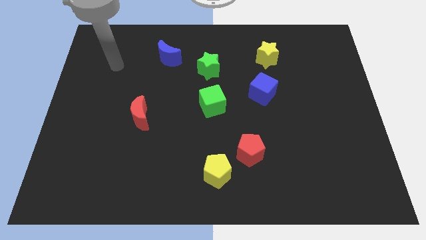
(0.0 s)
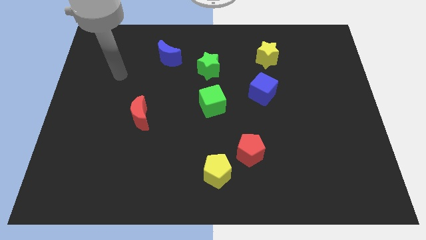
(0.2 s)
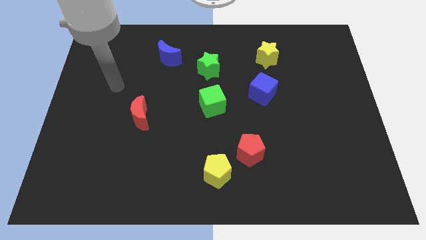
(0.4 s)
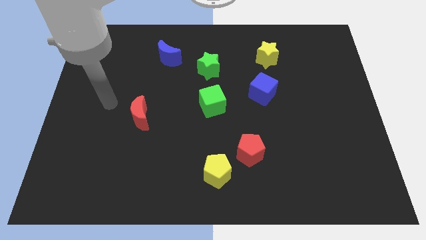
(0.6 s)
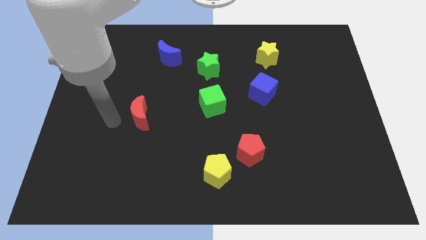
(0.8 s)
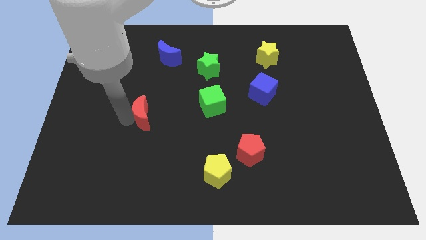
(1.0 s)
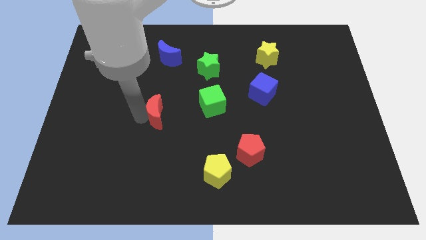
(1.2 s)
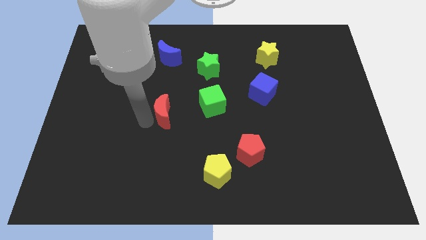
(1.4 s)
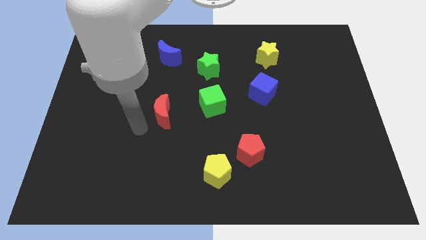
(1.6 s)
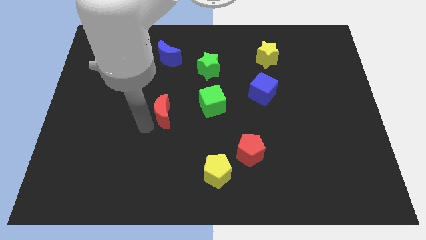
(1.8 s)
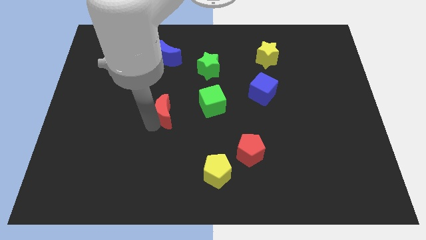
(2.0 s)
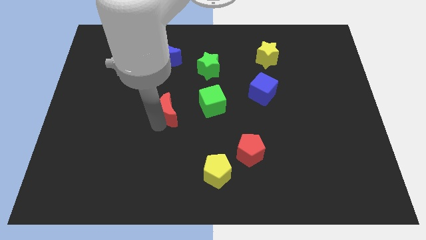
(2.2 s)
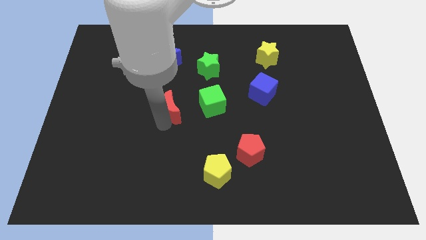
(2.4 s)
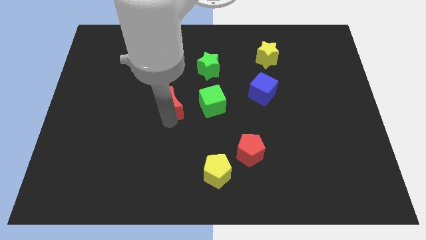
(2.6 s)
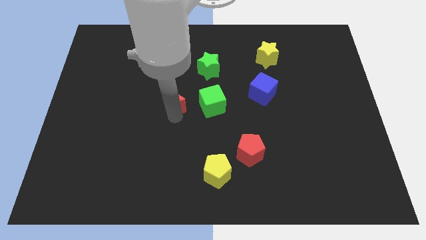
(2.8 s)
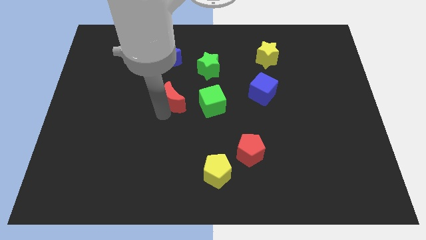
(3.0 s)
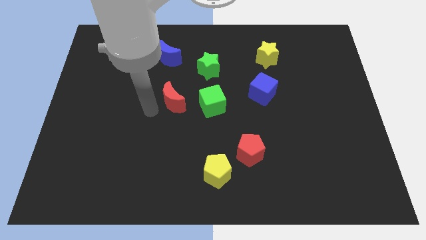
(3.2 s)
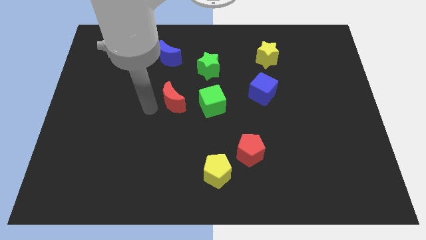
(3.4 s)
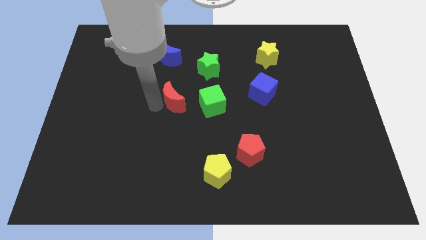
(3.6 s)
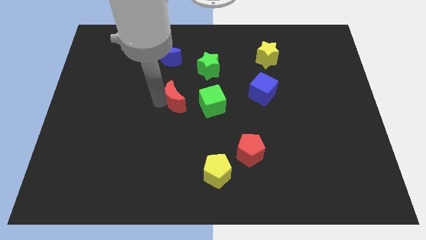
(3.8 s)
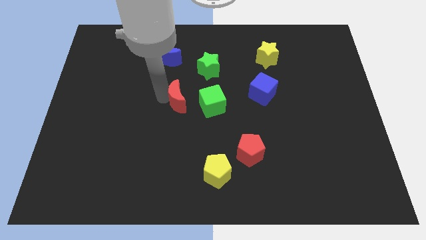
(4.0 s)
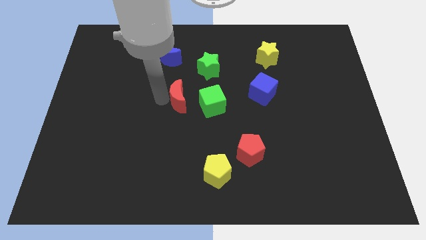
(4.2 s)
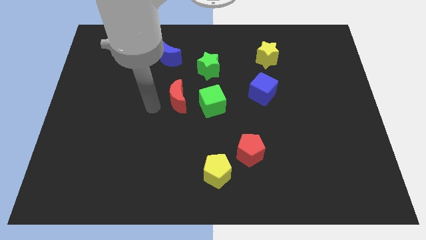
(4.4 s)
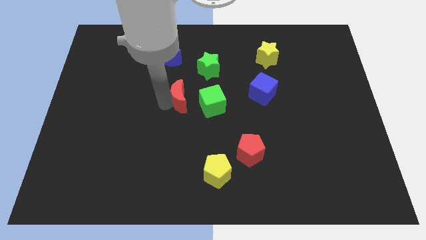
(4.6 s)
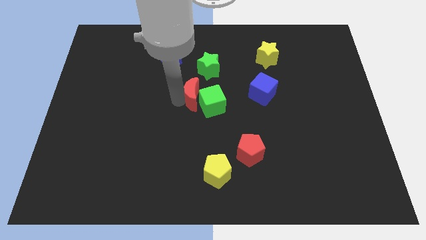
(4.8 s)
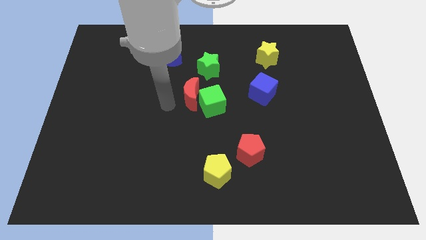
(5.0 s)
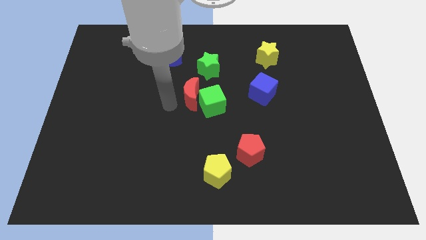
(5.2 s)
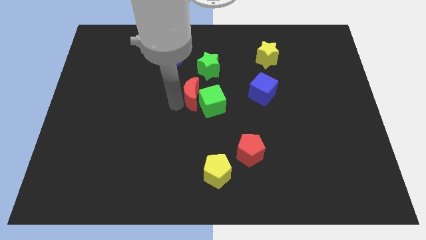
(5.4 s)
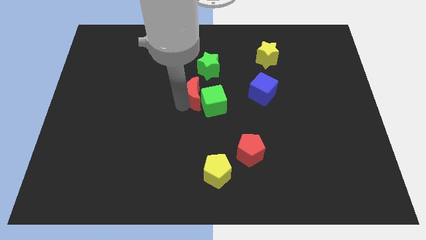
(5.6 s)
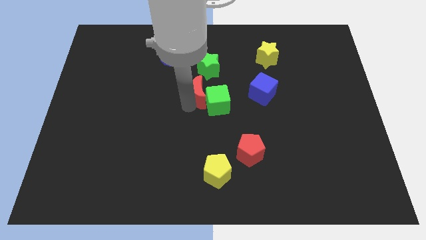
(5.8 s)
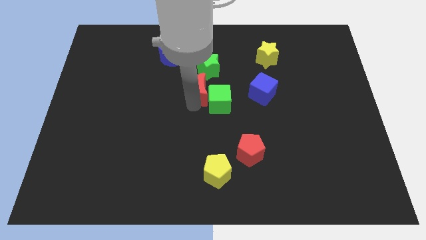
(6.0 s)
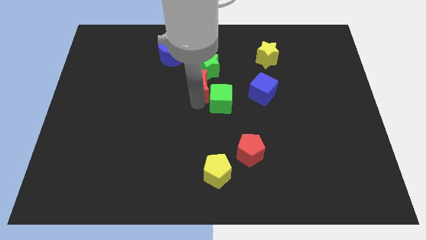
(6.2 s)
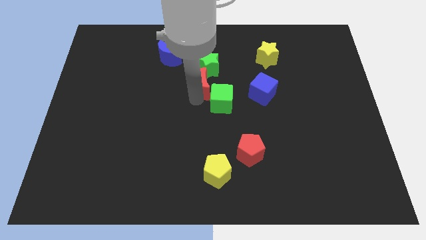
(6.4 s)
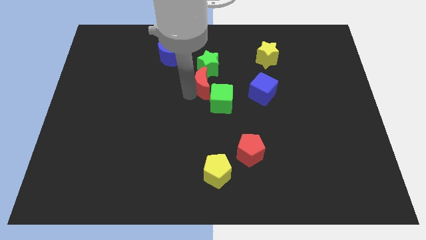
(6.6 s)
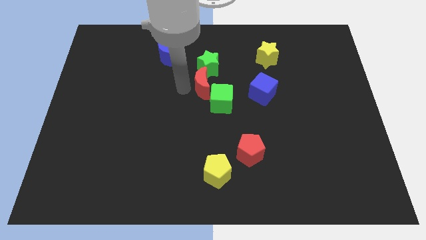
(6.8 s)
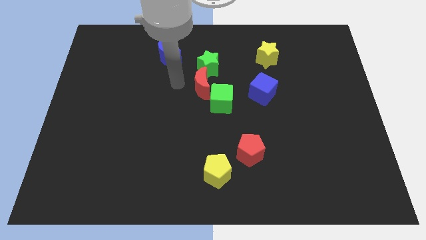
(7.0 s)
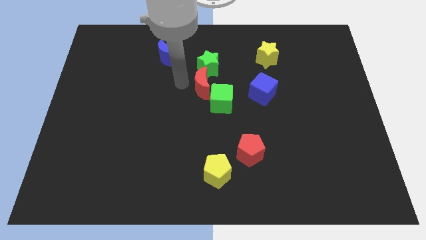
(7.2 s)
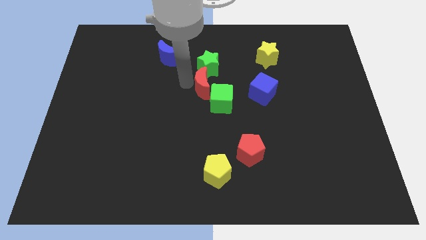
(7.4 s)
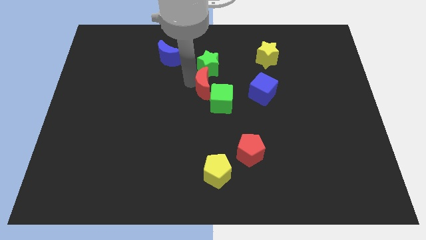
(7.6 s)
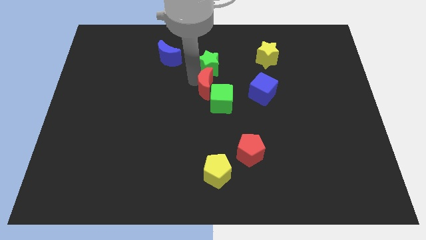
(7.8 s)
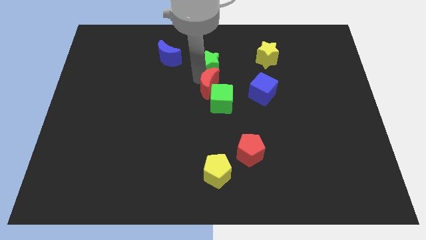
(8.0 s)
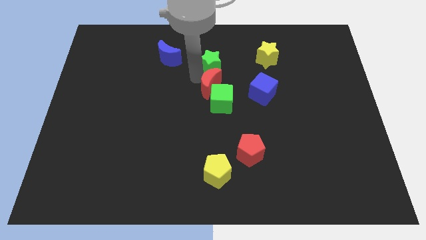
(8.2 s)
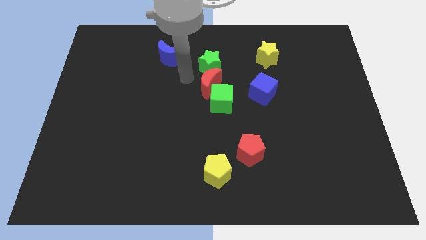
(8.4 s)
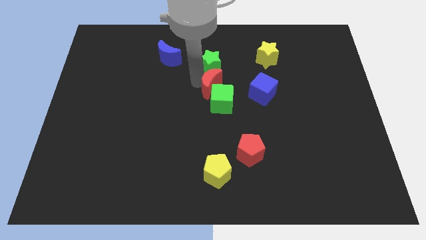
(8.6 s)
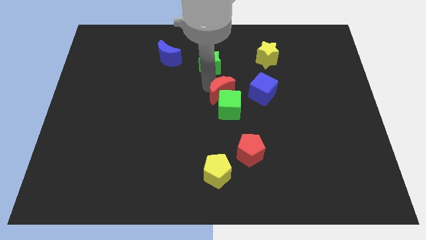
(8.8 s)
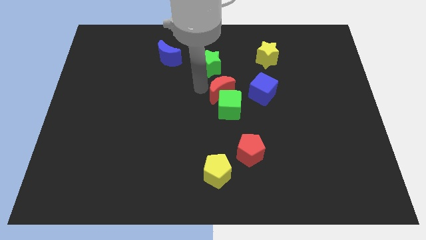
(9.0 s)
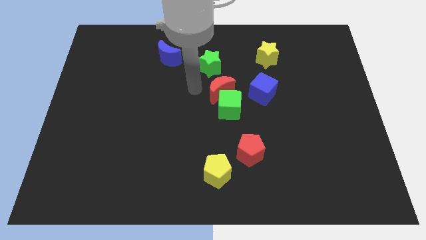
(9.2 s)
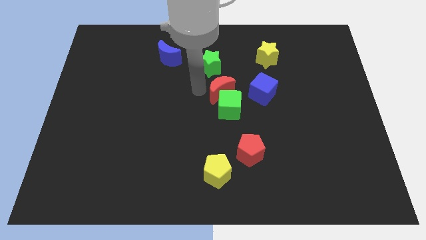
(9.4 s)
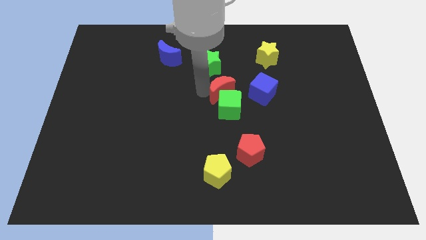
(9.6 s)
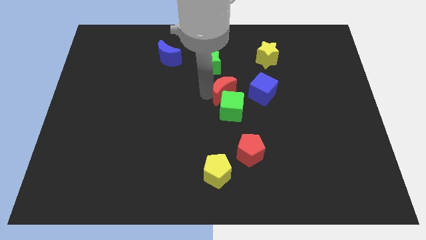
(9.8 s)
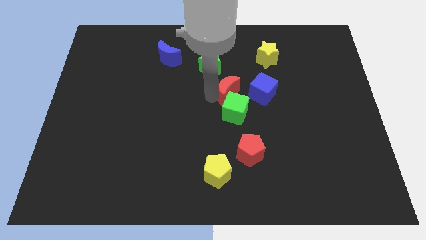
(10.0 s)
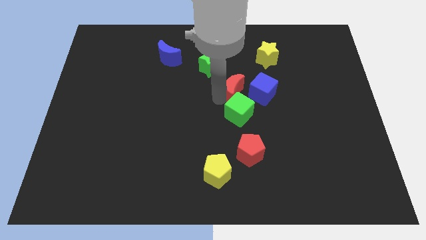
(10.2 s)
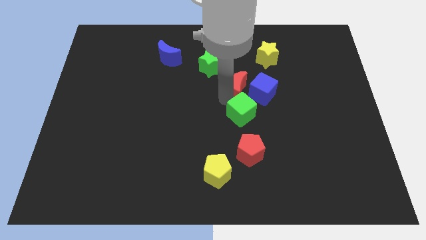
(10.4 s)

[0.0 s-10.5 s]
put the red moon to the blue cube

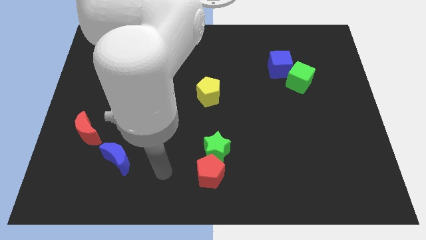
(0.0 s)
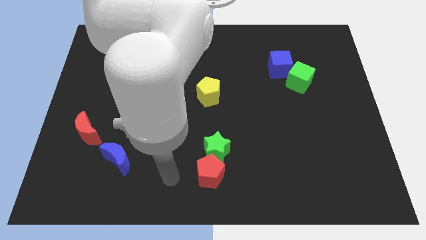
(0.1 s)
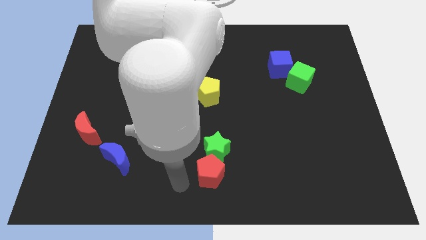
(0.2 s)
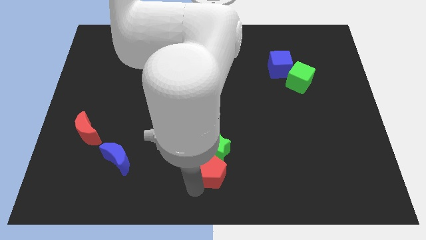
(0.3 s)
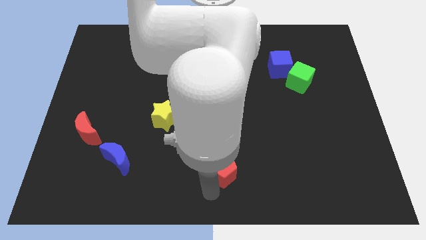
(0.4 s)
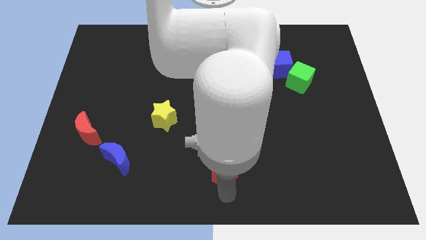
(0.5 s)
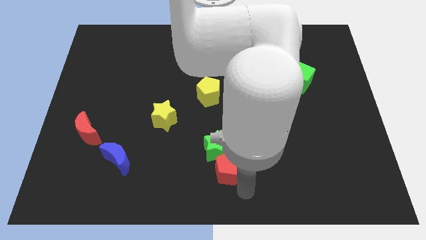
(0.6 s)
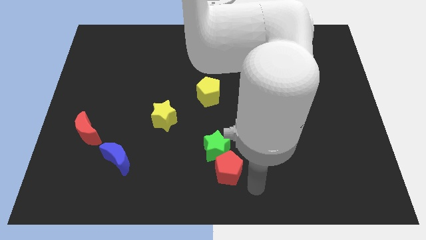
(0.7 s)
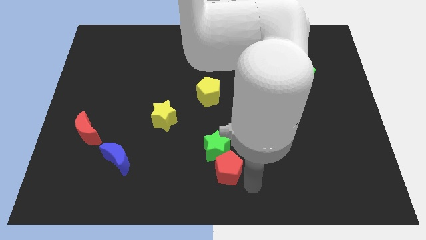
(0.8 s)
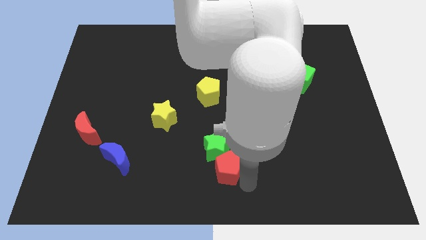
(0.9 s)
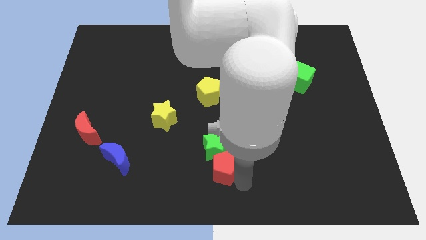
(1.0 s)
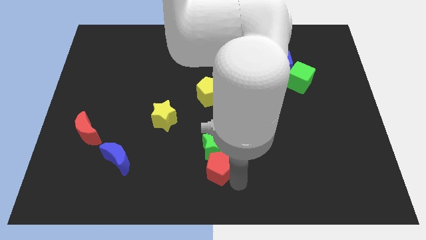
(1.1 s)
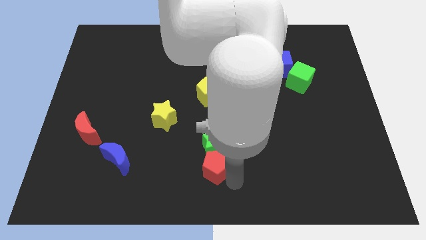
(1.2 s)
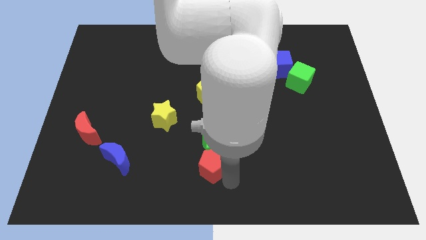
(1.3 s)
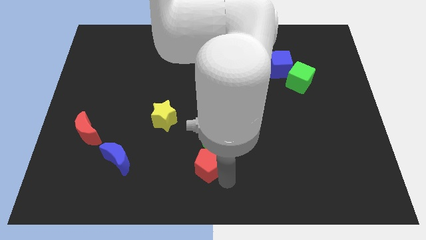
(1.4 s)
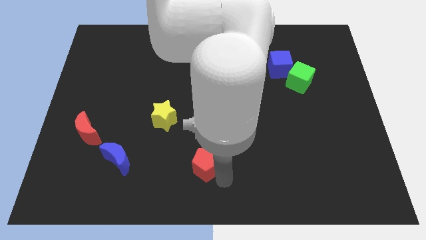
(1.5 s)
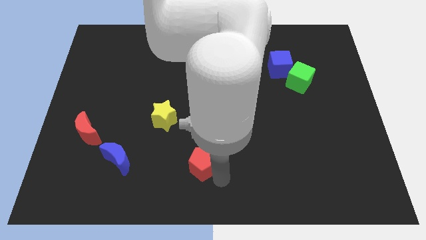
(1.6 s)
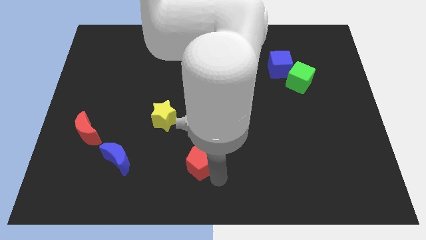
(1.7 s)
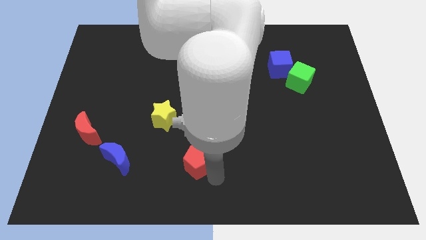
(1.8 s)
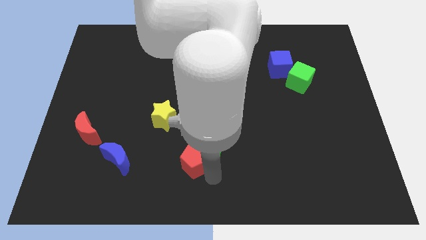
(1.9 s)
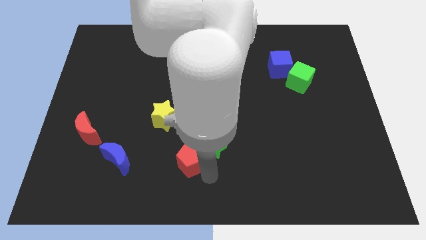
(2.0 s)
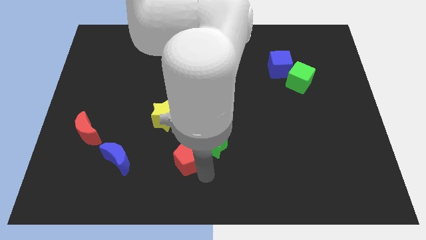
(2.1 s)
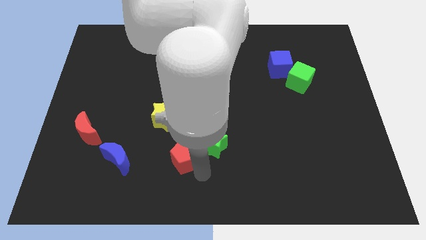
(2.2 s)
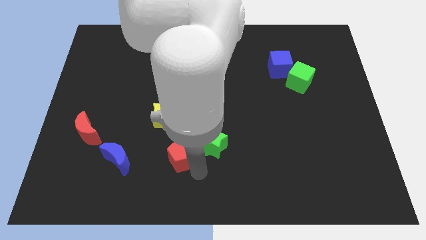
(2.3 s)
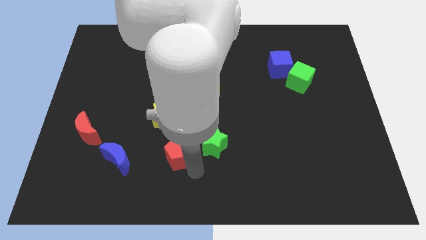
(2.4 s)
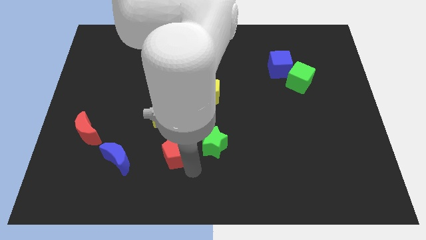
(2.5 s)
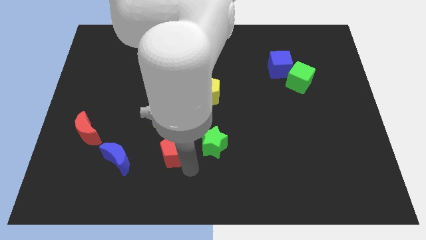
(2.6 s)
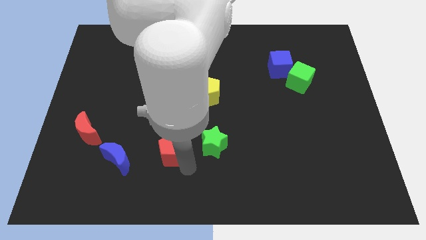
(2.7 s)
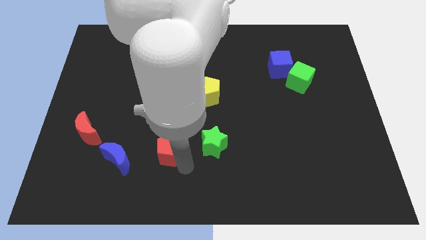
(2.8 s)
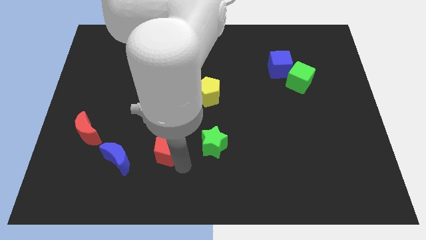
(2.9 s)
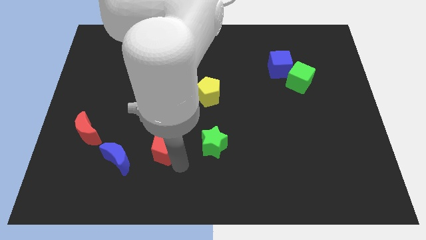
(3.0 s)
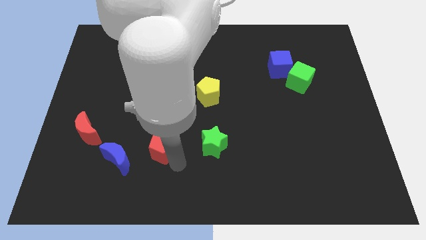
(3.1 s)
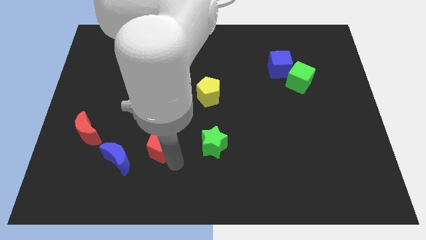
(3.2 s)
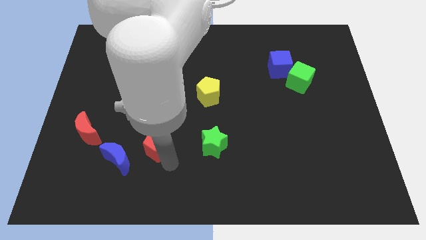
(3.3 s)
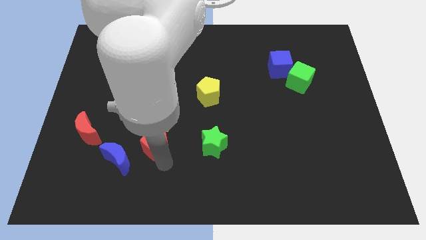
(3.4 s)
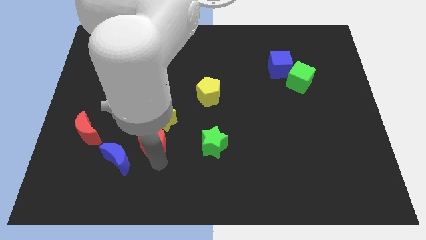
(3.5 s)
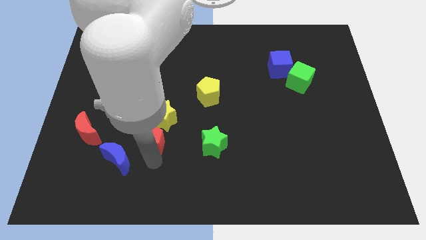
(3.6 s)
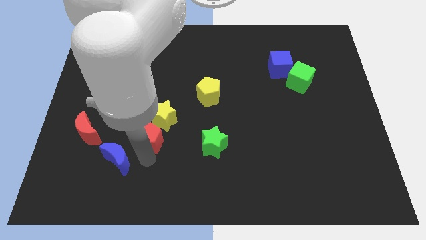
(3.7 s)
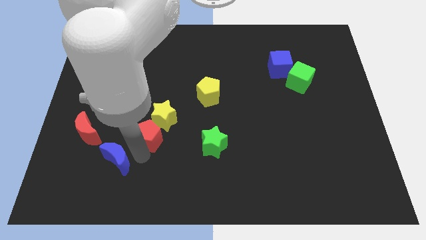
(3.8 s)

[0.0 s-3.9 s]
put the red pentagon next to the yellow star
